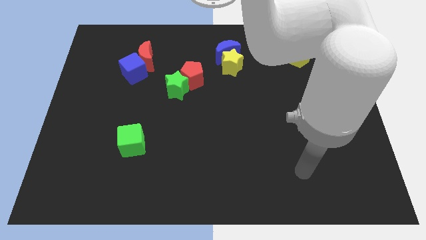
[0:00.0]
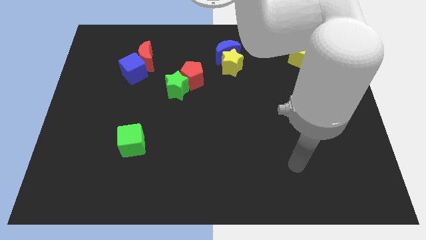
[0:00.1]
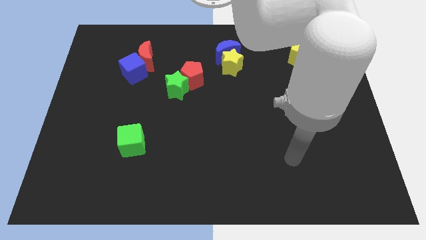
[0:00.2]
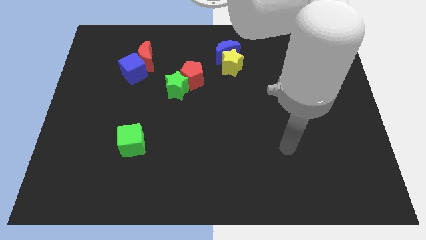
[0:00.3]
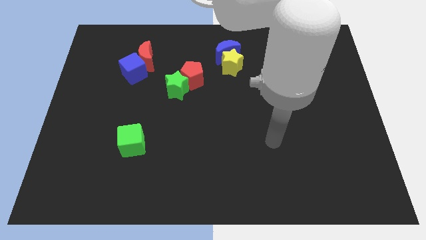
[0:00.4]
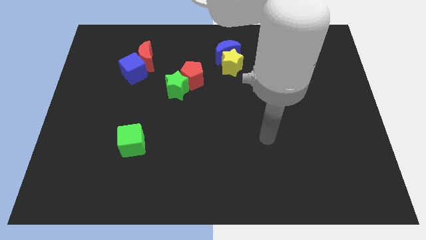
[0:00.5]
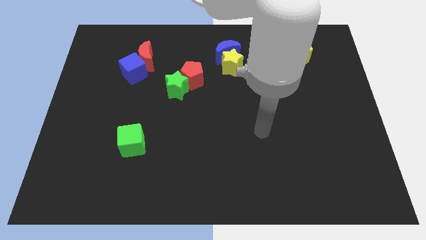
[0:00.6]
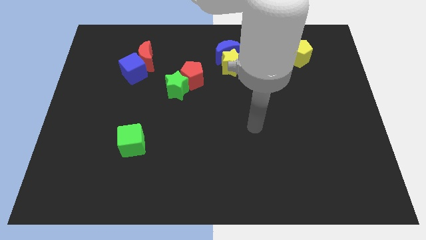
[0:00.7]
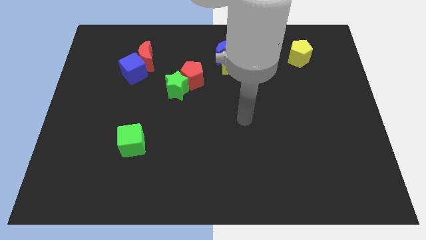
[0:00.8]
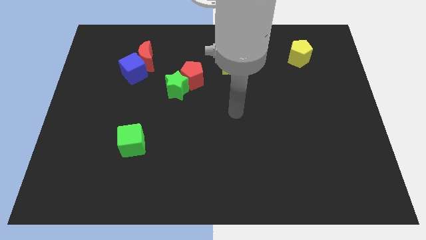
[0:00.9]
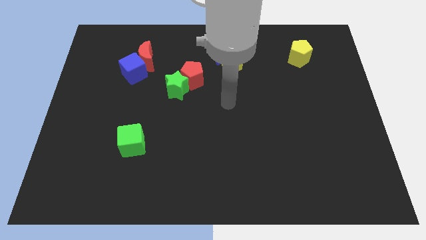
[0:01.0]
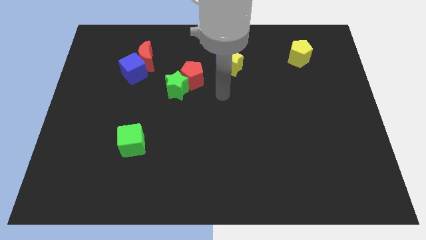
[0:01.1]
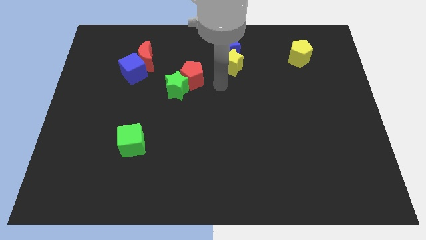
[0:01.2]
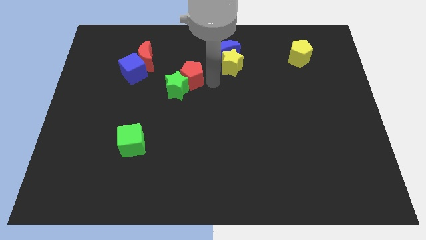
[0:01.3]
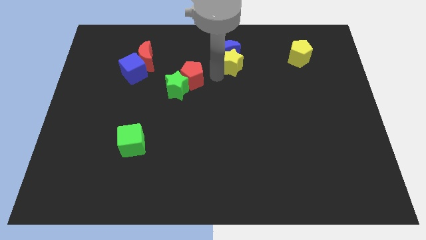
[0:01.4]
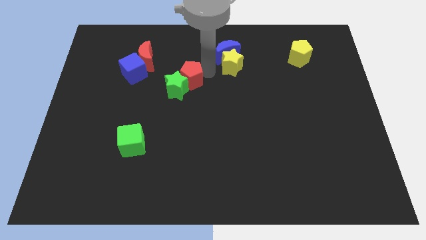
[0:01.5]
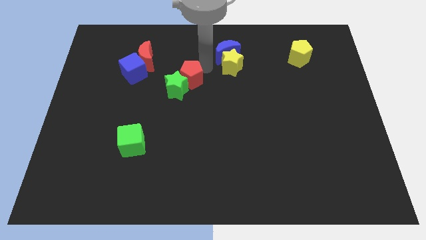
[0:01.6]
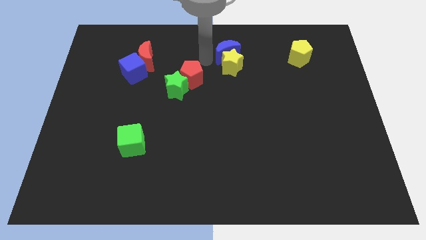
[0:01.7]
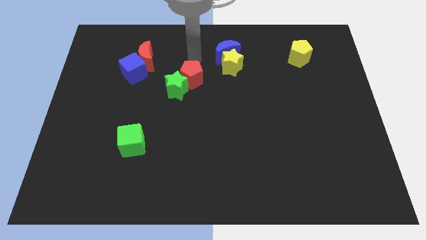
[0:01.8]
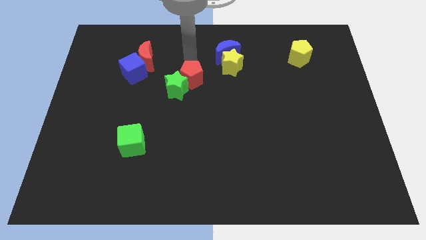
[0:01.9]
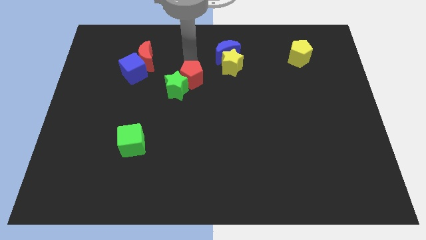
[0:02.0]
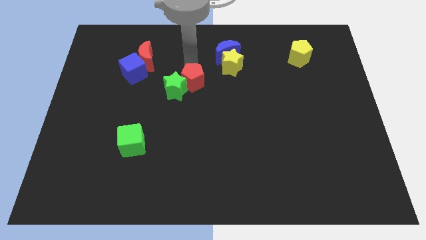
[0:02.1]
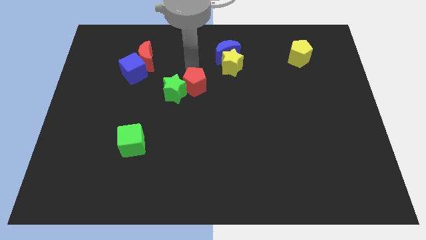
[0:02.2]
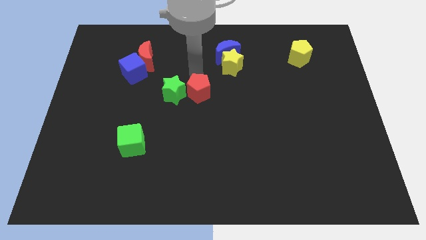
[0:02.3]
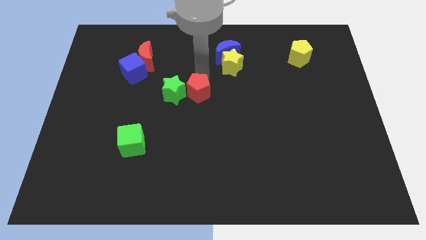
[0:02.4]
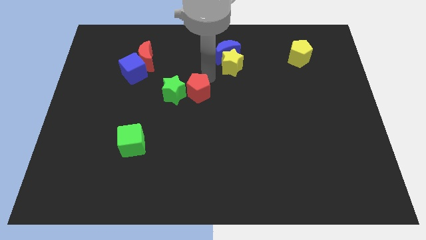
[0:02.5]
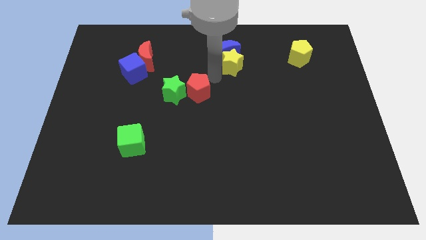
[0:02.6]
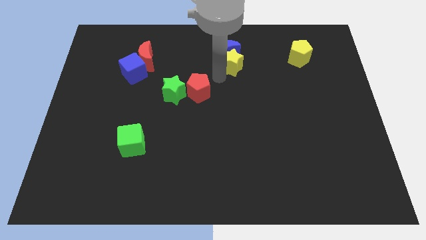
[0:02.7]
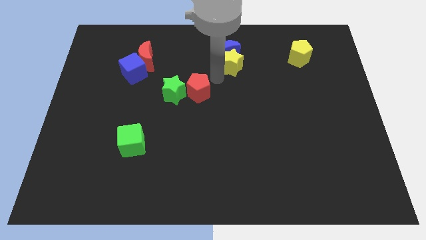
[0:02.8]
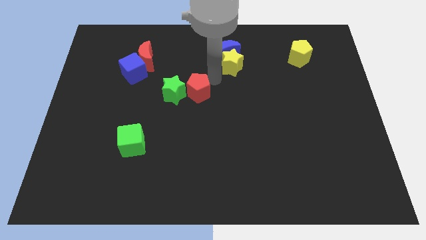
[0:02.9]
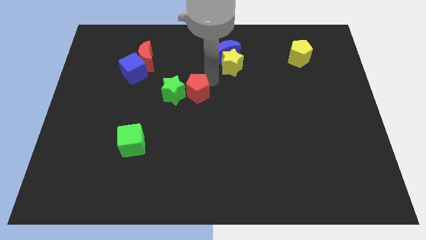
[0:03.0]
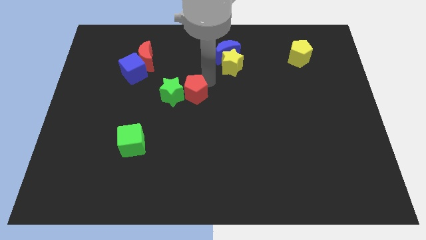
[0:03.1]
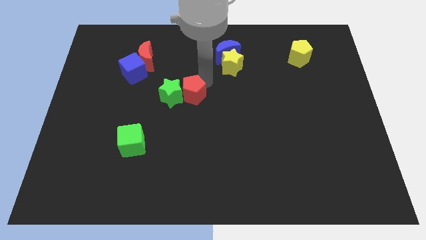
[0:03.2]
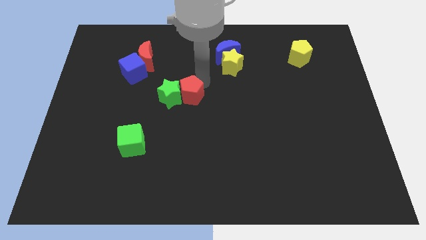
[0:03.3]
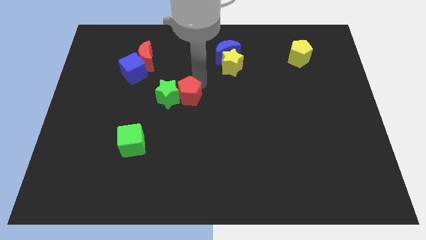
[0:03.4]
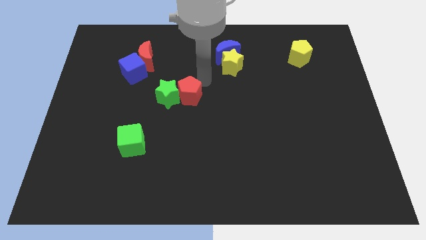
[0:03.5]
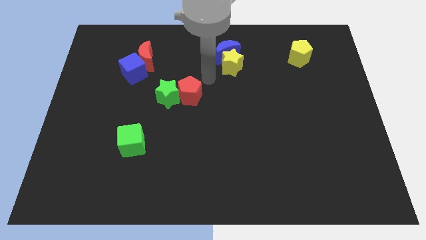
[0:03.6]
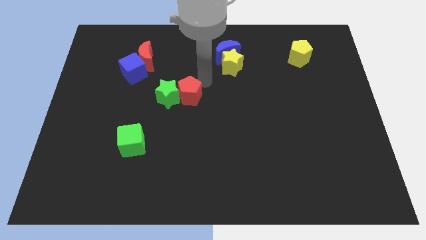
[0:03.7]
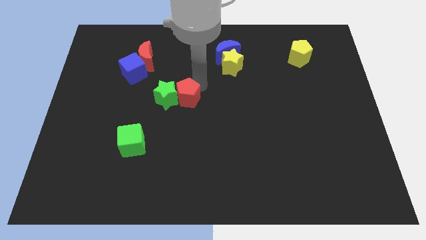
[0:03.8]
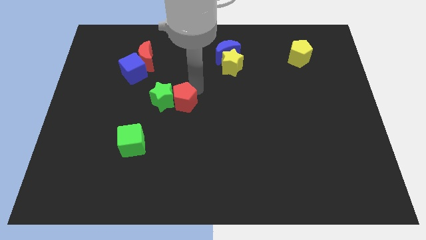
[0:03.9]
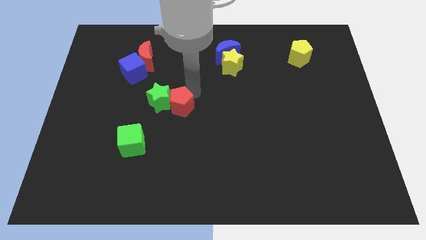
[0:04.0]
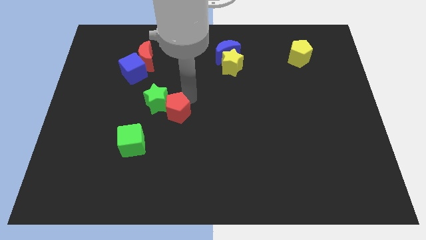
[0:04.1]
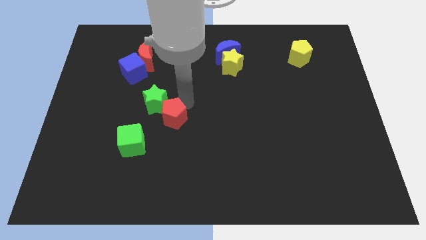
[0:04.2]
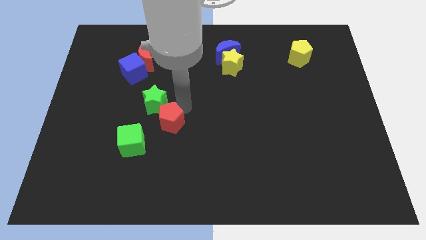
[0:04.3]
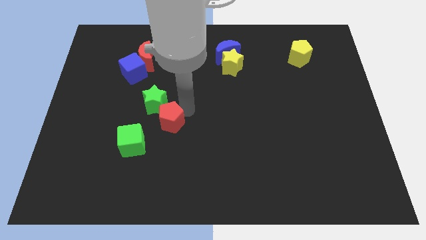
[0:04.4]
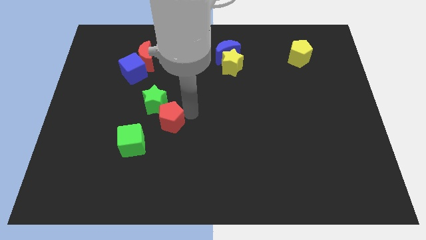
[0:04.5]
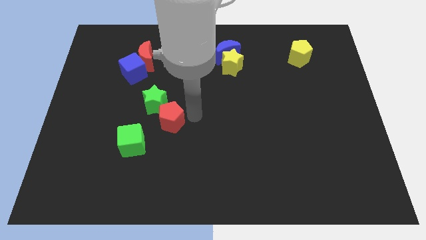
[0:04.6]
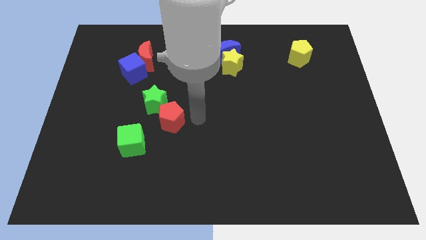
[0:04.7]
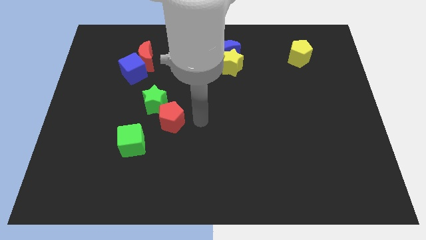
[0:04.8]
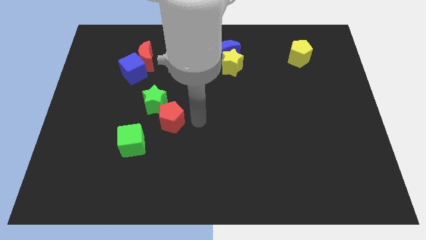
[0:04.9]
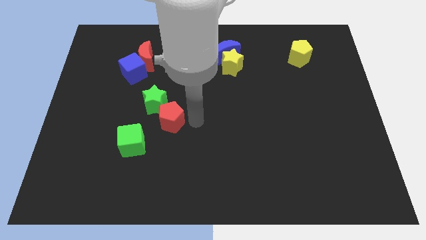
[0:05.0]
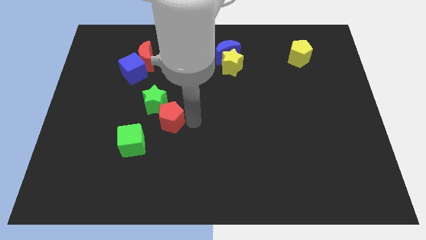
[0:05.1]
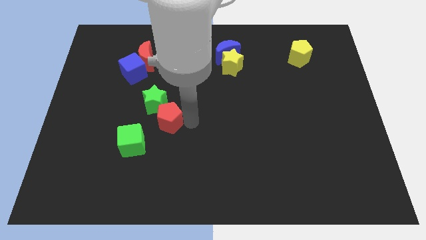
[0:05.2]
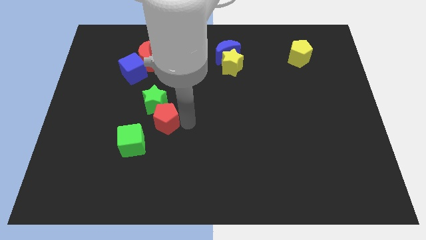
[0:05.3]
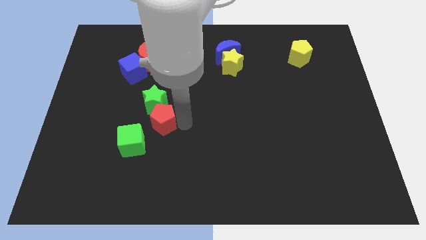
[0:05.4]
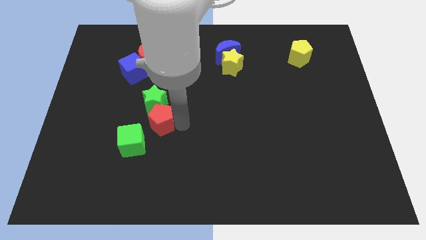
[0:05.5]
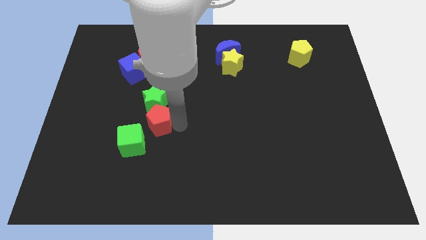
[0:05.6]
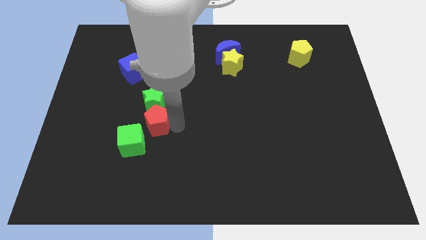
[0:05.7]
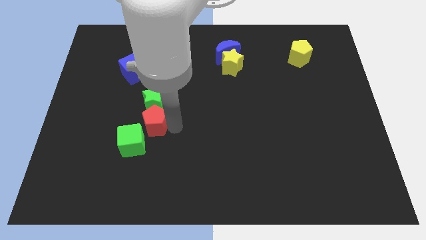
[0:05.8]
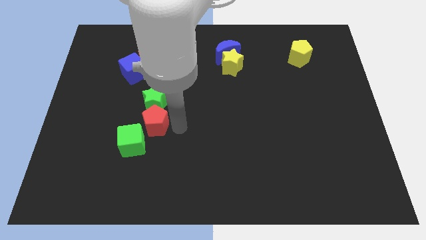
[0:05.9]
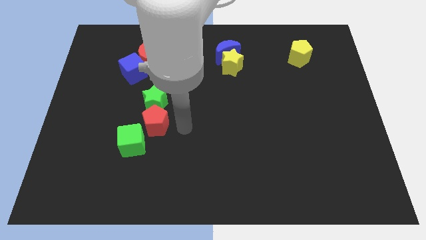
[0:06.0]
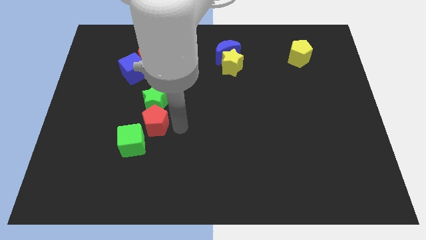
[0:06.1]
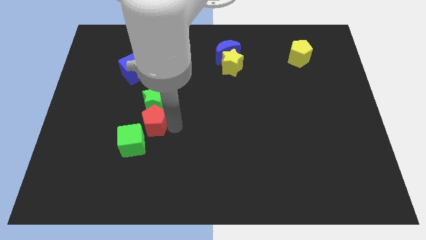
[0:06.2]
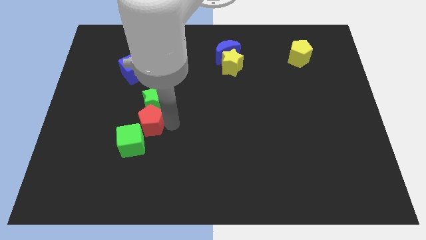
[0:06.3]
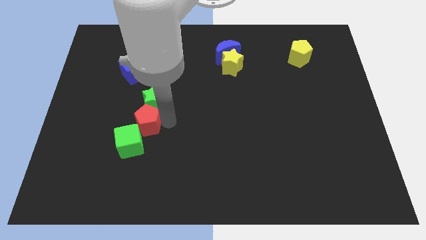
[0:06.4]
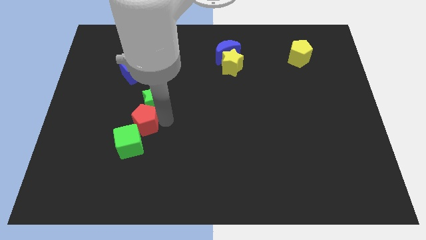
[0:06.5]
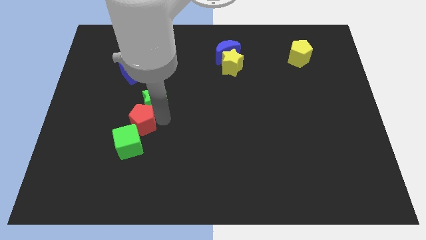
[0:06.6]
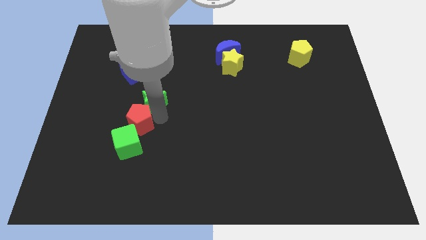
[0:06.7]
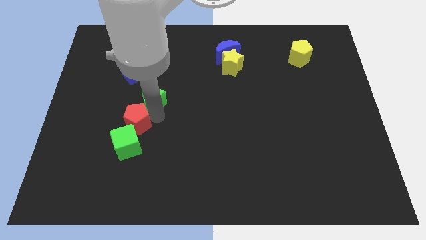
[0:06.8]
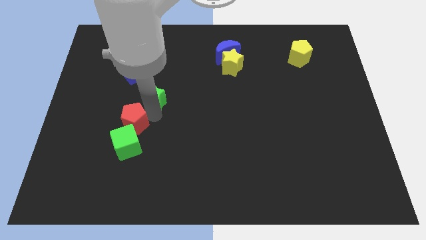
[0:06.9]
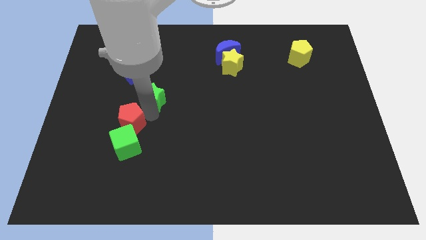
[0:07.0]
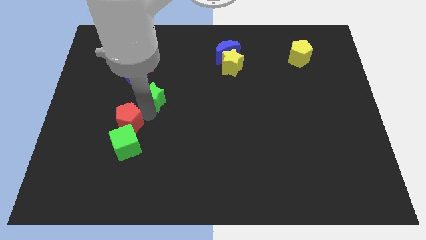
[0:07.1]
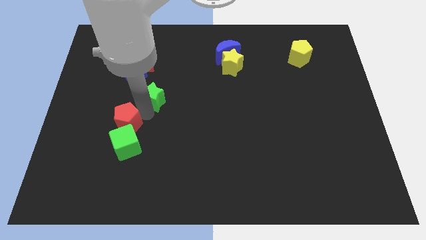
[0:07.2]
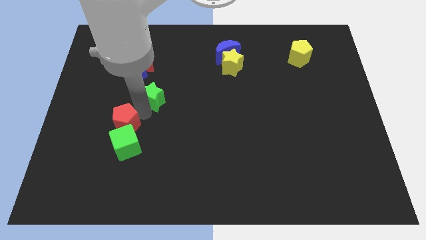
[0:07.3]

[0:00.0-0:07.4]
slide the red pentagon diagonally downwards and to the left

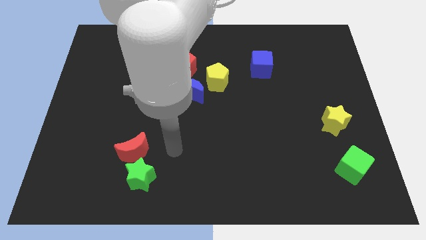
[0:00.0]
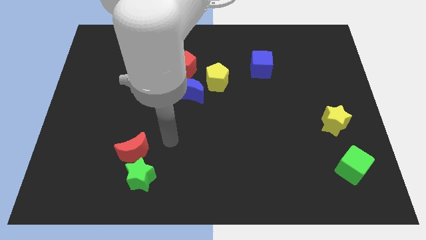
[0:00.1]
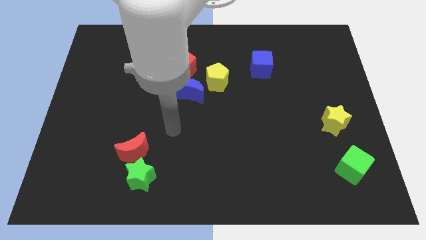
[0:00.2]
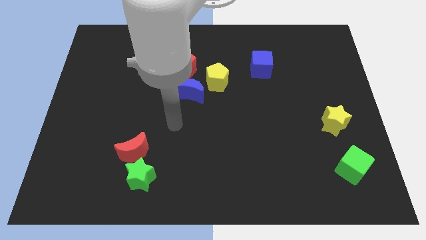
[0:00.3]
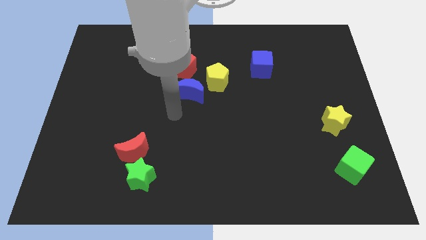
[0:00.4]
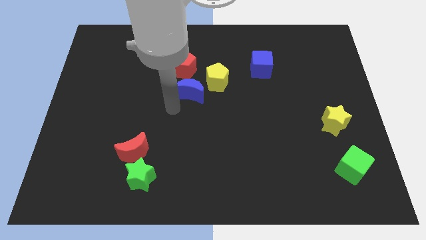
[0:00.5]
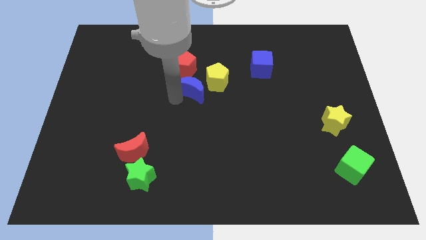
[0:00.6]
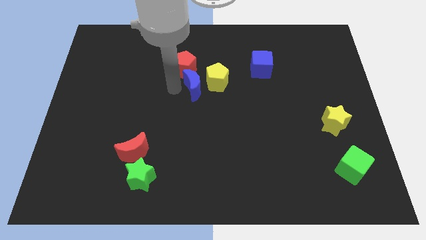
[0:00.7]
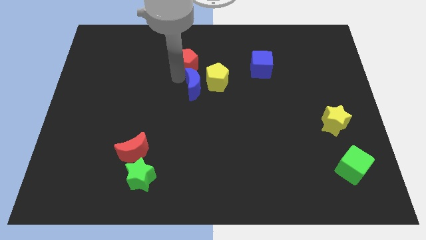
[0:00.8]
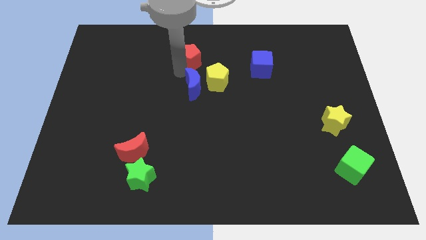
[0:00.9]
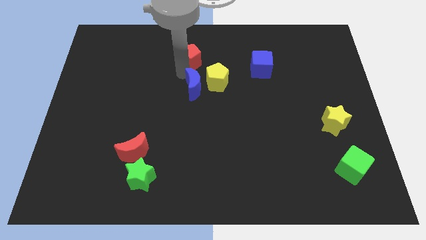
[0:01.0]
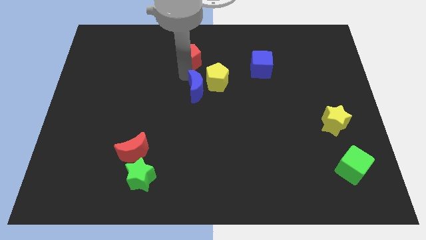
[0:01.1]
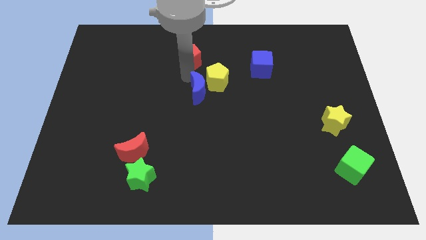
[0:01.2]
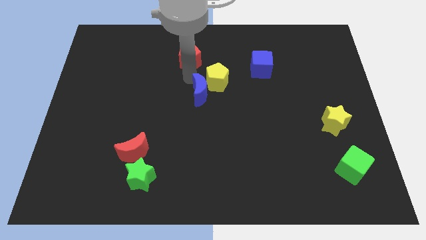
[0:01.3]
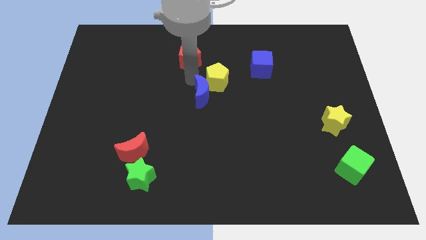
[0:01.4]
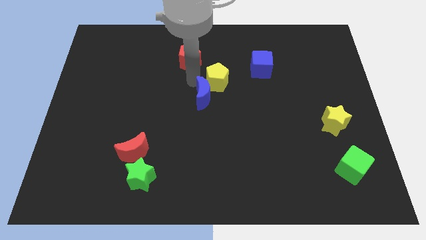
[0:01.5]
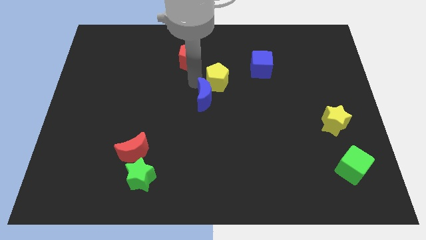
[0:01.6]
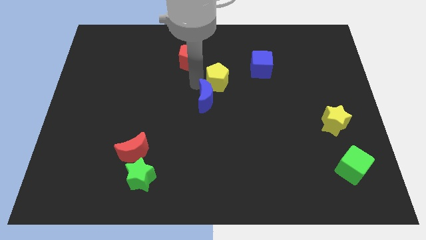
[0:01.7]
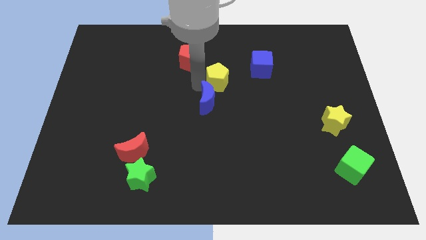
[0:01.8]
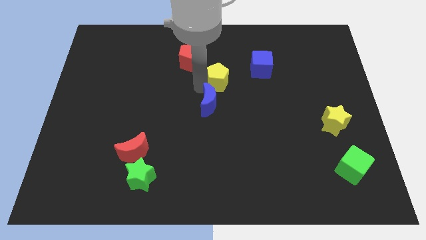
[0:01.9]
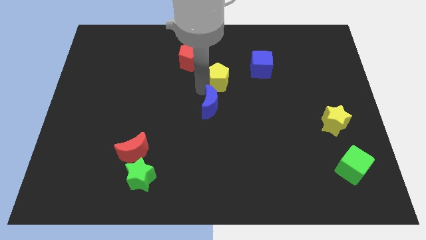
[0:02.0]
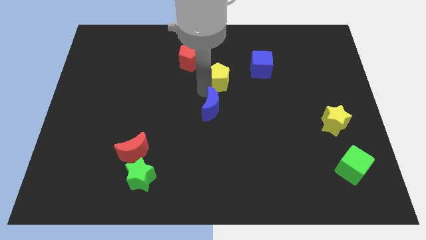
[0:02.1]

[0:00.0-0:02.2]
slightly move the blue moon diagonally down and right
